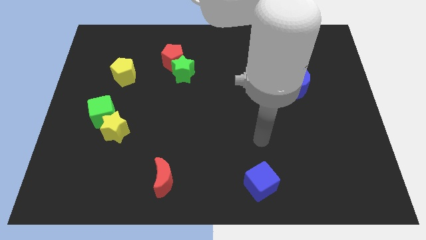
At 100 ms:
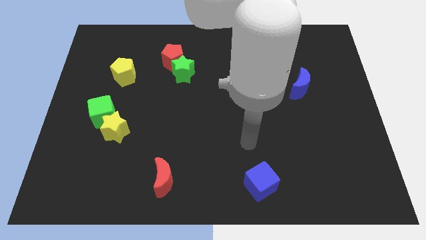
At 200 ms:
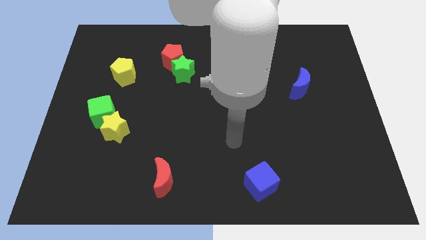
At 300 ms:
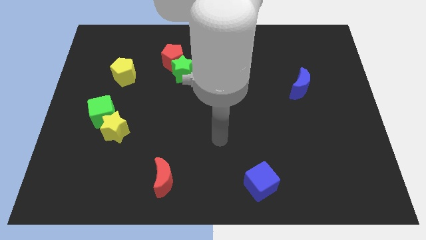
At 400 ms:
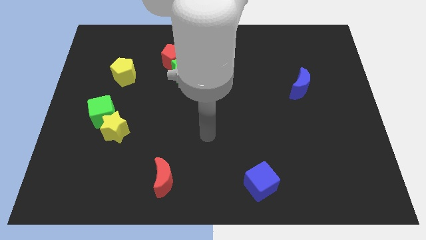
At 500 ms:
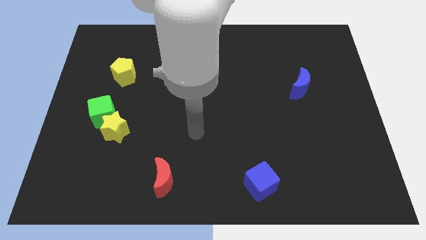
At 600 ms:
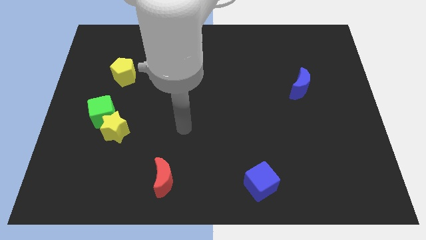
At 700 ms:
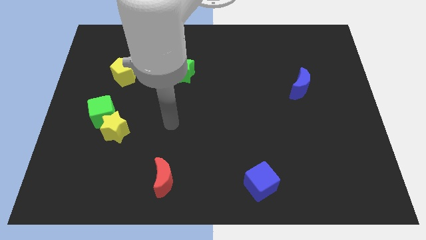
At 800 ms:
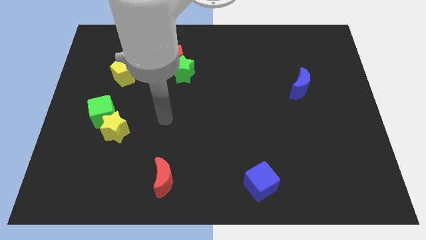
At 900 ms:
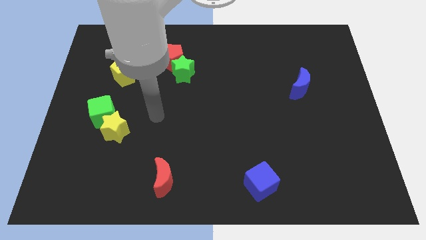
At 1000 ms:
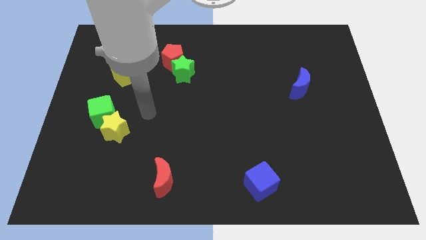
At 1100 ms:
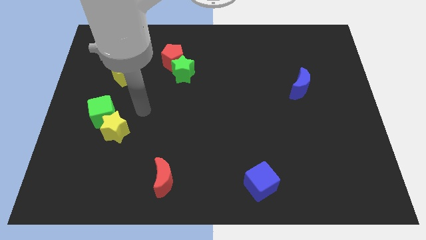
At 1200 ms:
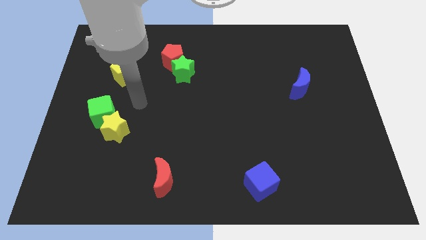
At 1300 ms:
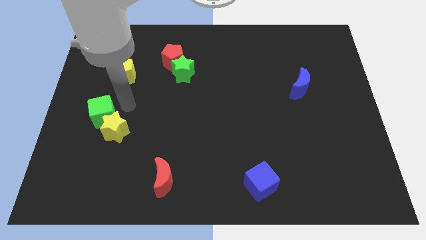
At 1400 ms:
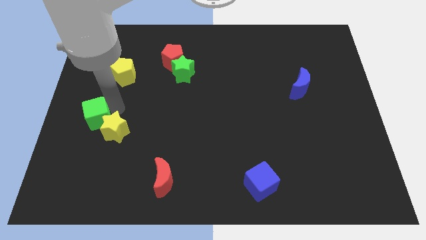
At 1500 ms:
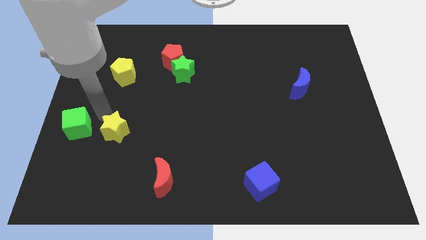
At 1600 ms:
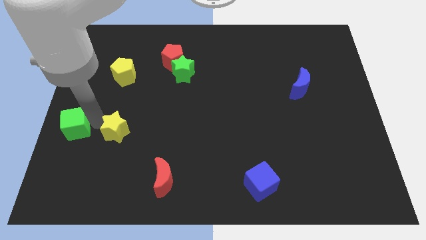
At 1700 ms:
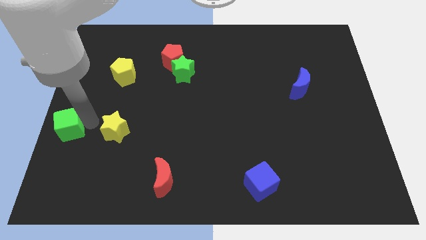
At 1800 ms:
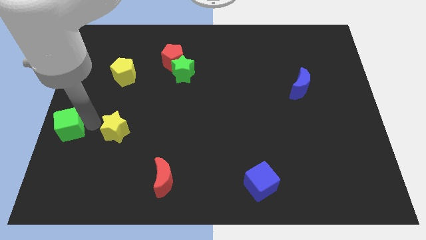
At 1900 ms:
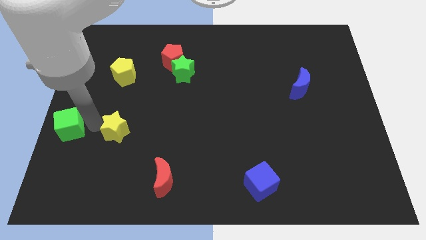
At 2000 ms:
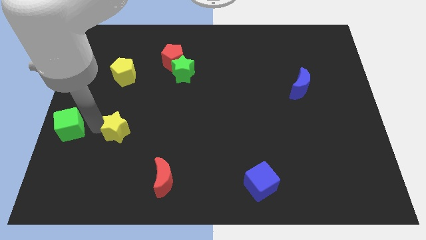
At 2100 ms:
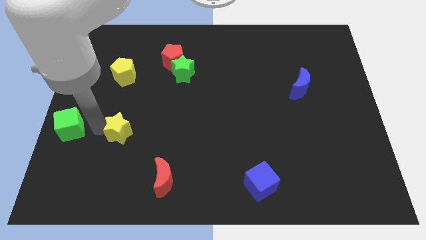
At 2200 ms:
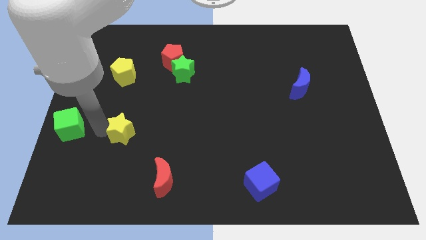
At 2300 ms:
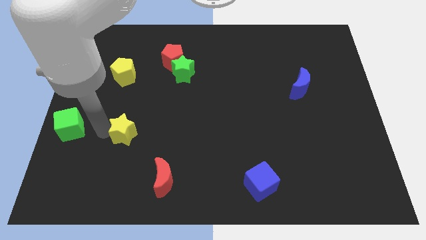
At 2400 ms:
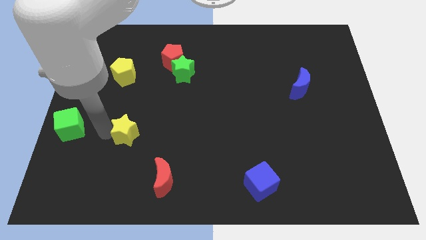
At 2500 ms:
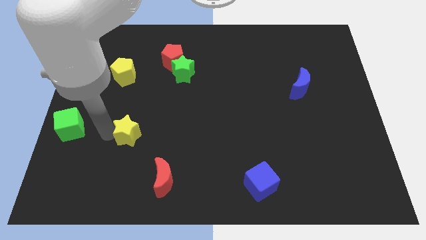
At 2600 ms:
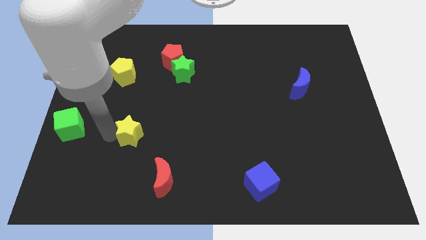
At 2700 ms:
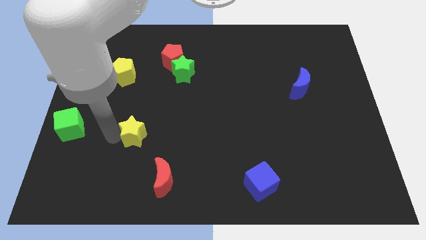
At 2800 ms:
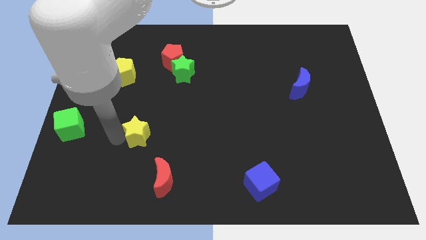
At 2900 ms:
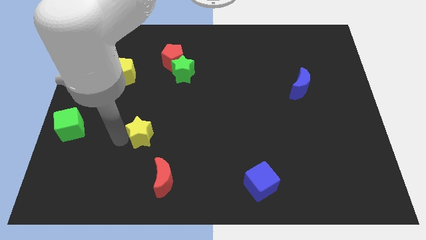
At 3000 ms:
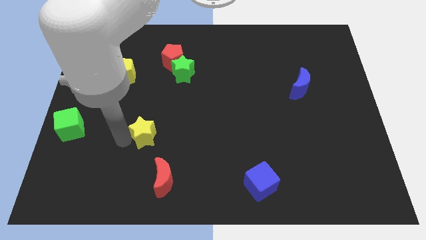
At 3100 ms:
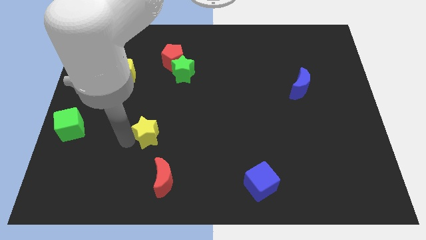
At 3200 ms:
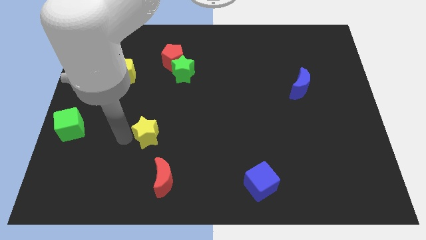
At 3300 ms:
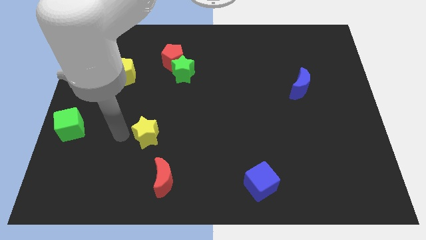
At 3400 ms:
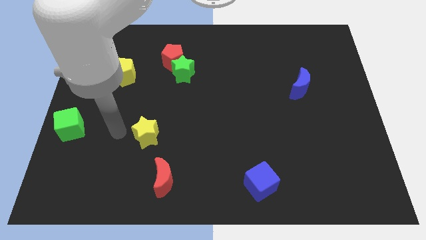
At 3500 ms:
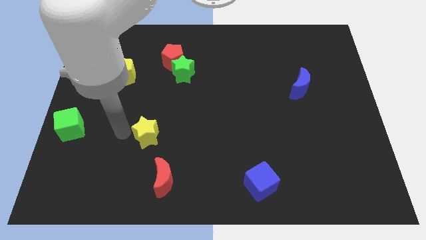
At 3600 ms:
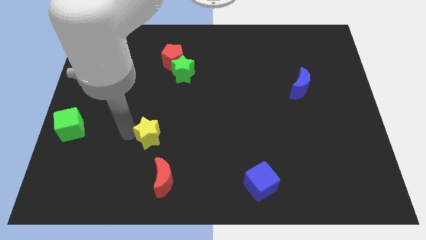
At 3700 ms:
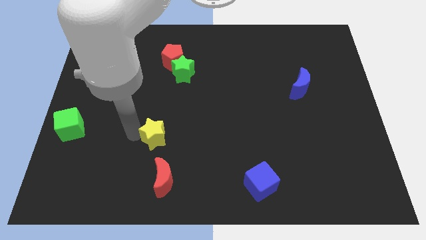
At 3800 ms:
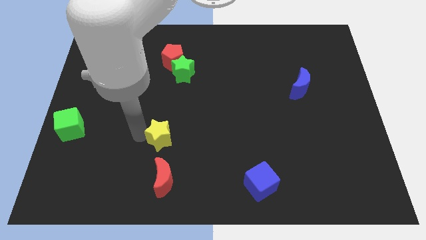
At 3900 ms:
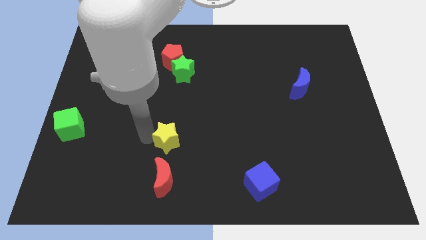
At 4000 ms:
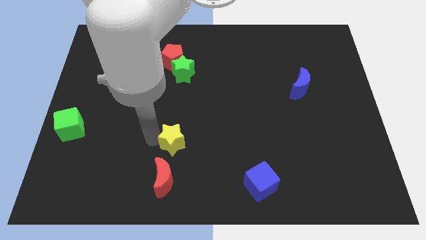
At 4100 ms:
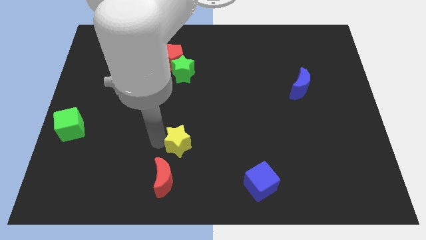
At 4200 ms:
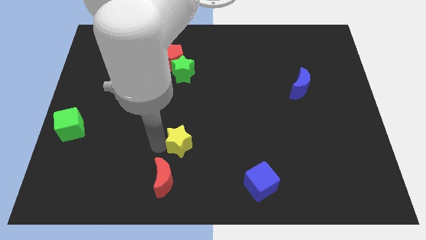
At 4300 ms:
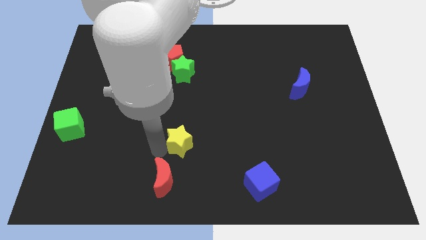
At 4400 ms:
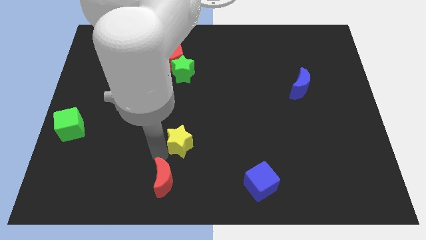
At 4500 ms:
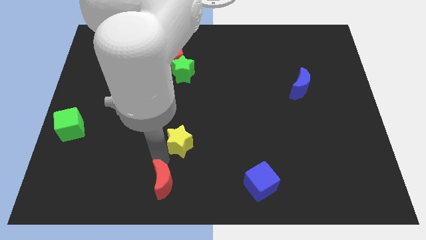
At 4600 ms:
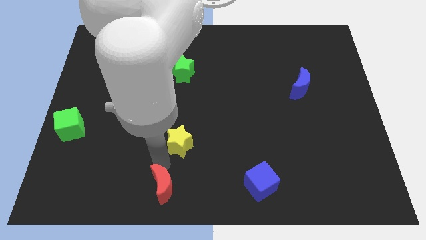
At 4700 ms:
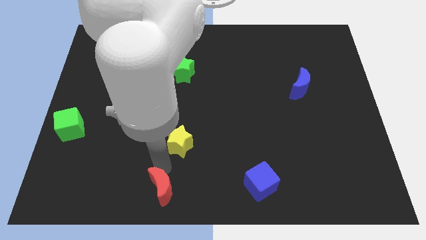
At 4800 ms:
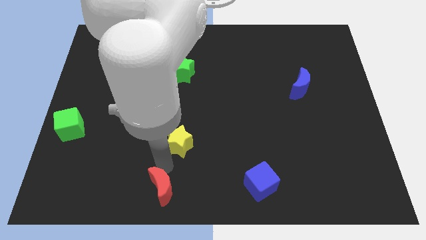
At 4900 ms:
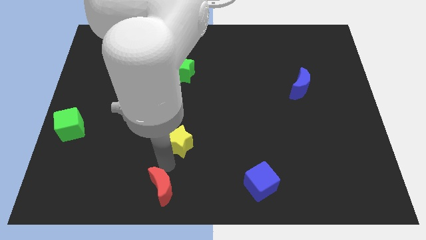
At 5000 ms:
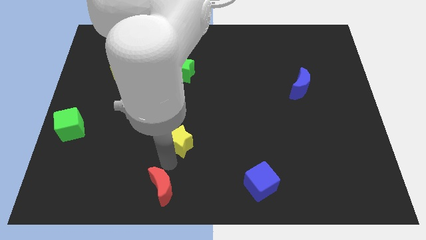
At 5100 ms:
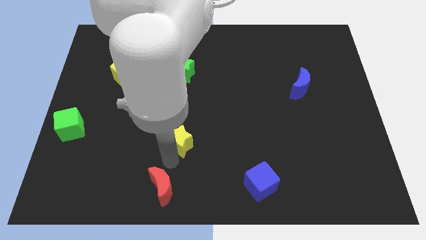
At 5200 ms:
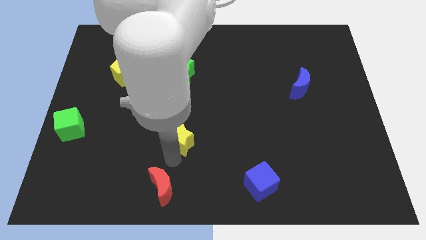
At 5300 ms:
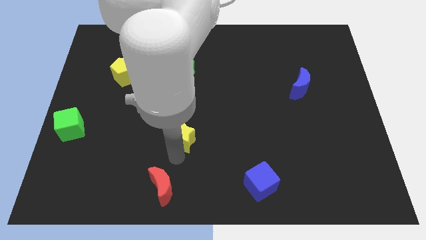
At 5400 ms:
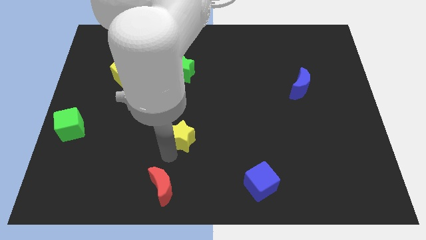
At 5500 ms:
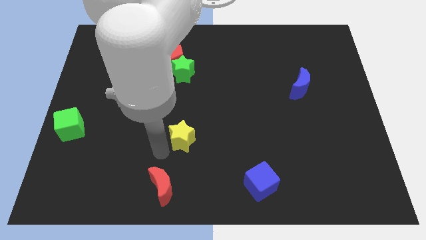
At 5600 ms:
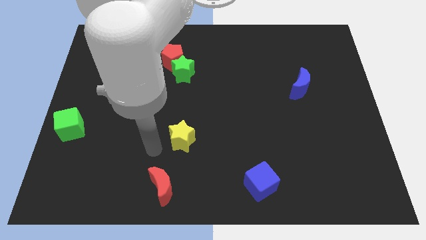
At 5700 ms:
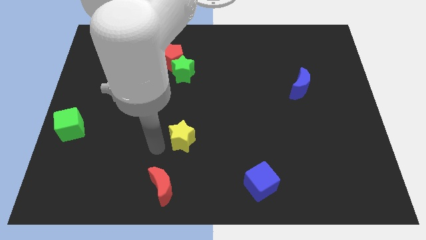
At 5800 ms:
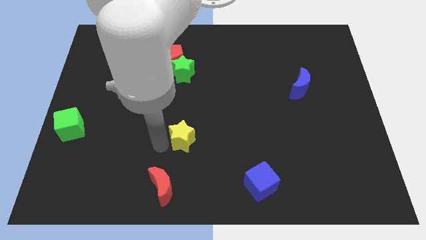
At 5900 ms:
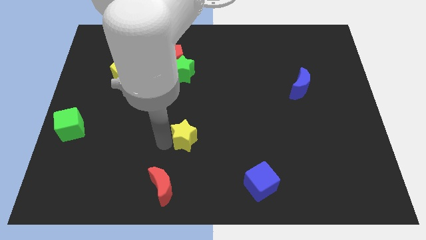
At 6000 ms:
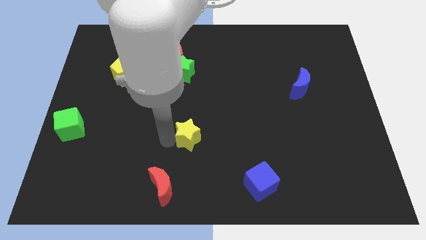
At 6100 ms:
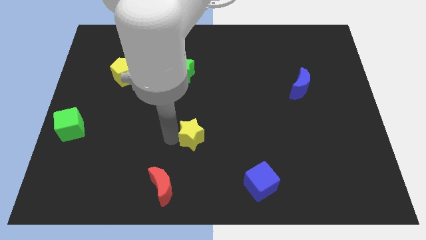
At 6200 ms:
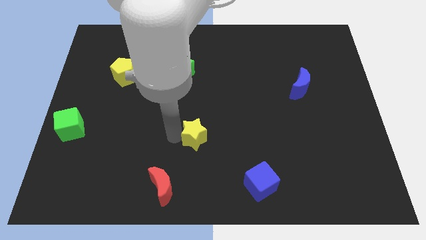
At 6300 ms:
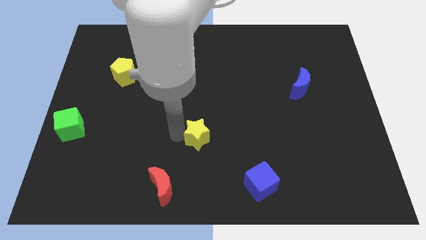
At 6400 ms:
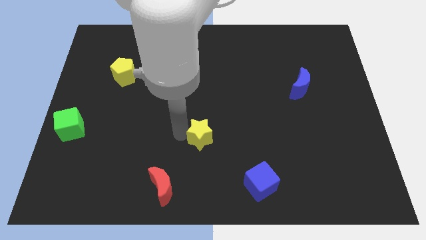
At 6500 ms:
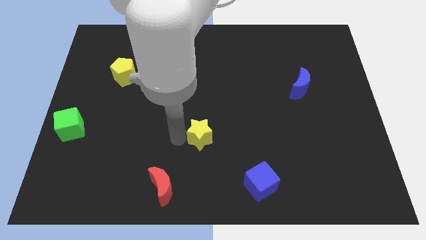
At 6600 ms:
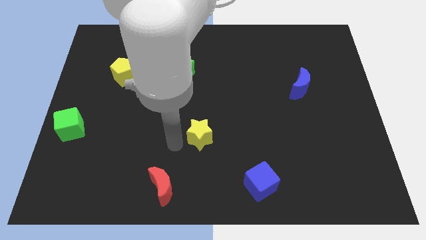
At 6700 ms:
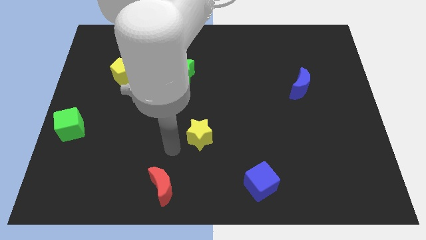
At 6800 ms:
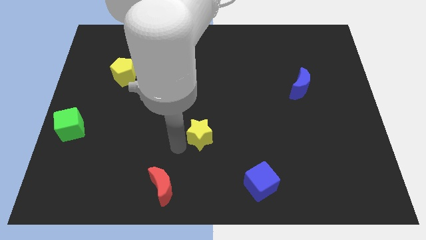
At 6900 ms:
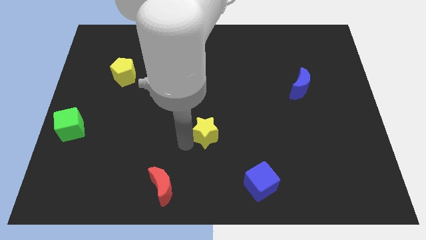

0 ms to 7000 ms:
slide the yellow star right

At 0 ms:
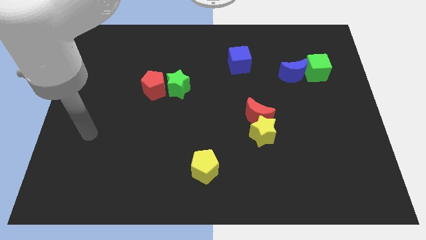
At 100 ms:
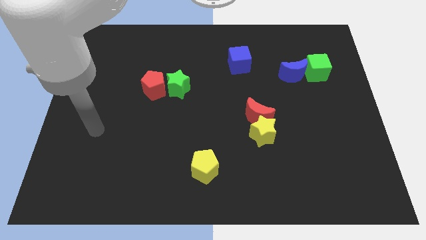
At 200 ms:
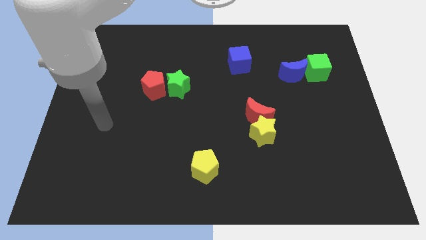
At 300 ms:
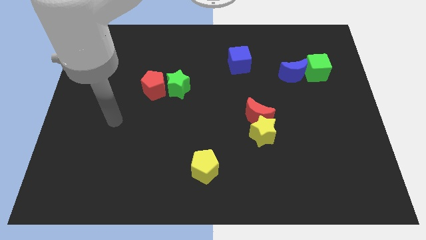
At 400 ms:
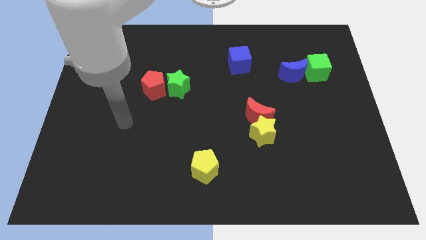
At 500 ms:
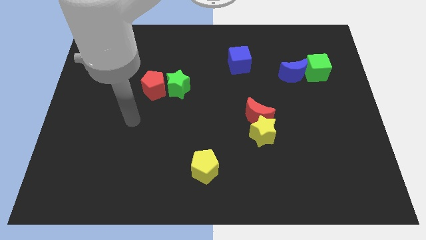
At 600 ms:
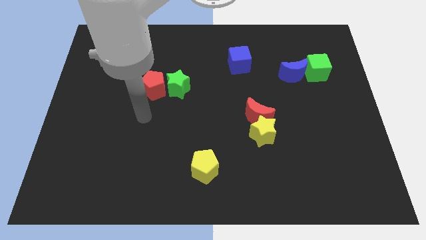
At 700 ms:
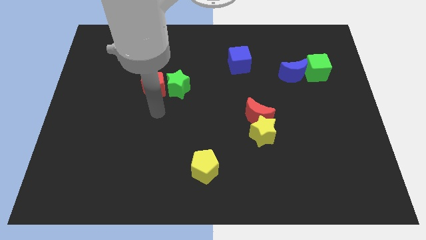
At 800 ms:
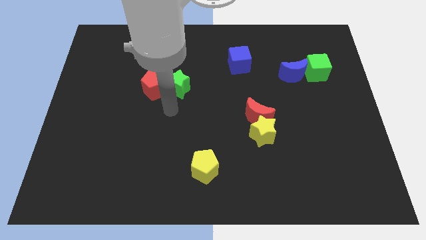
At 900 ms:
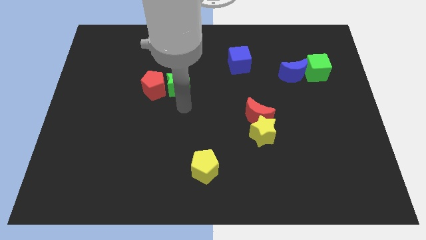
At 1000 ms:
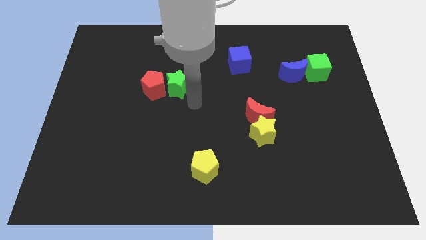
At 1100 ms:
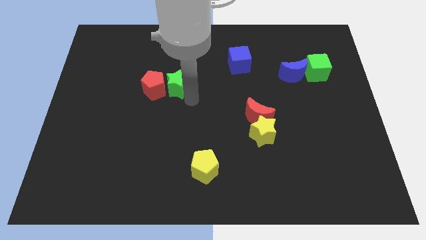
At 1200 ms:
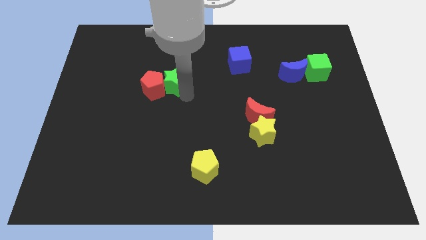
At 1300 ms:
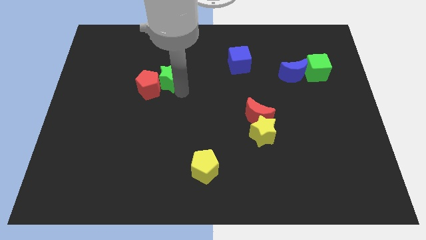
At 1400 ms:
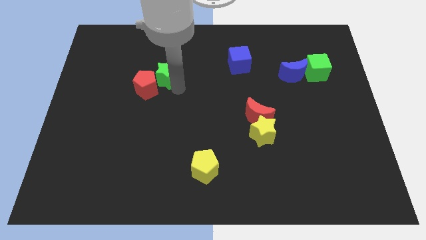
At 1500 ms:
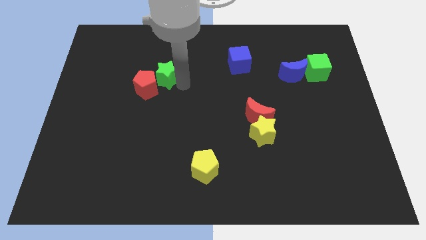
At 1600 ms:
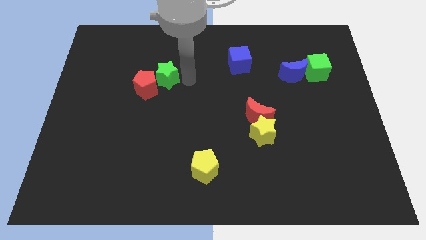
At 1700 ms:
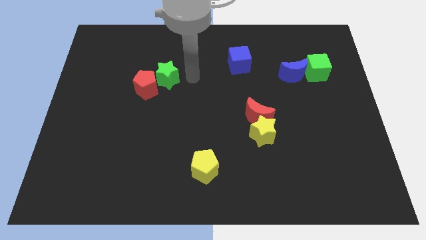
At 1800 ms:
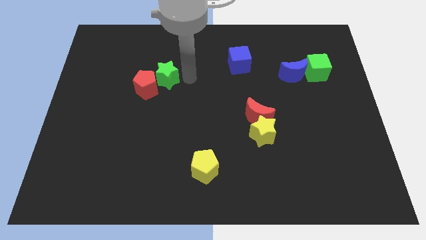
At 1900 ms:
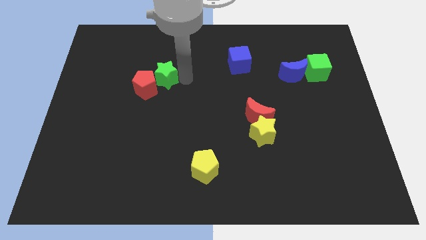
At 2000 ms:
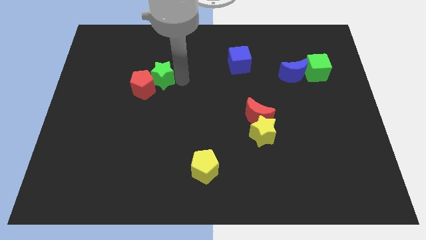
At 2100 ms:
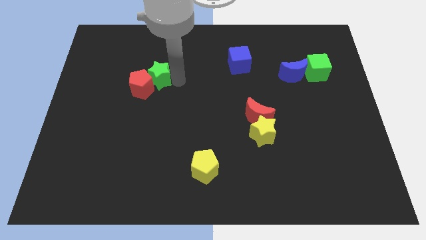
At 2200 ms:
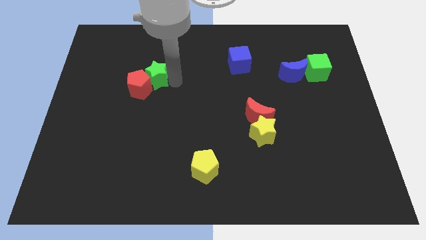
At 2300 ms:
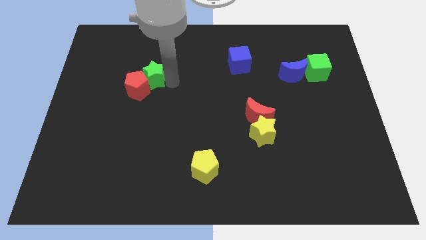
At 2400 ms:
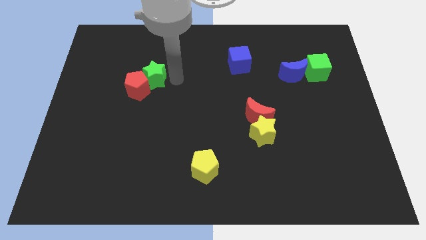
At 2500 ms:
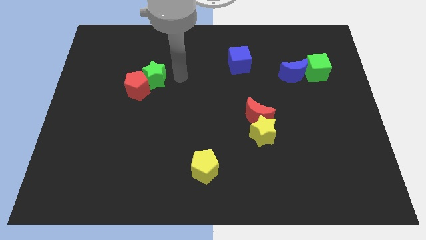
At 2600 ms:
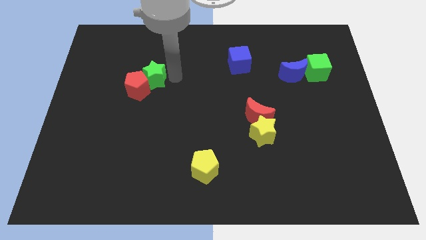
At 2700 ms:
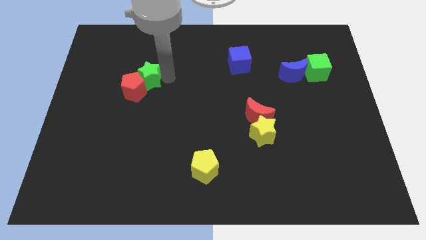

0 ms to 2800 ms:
slightly slide the green star to the left
